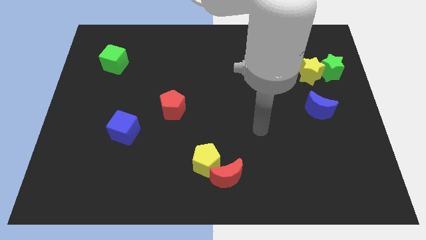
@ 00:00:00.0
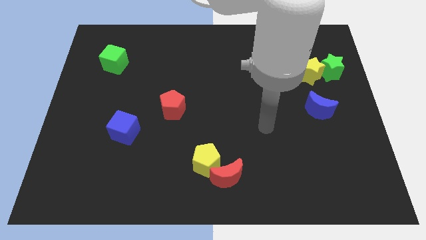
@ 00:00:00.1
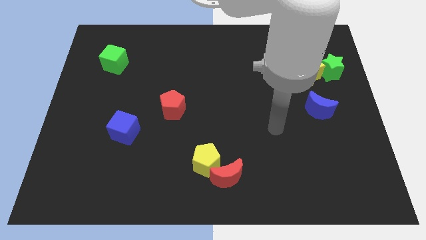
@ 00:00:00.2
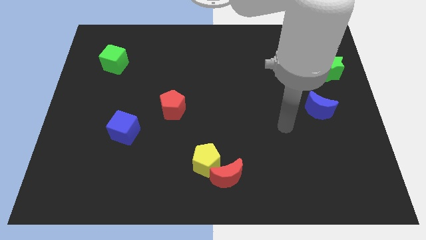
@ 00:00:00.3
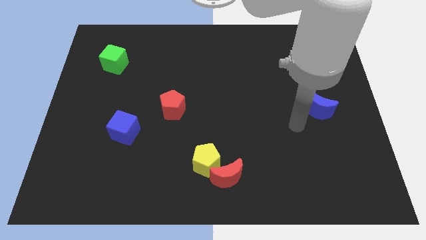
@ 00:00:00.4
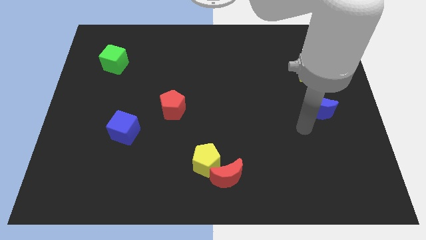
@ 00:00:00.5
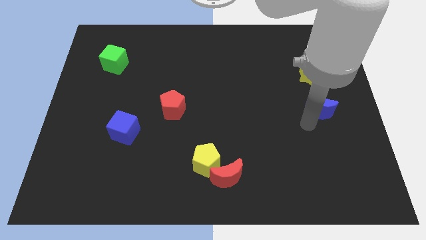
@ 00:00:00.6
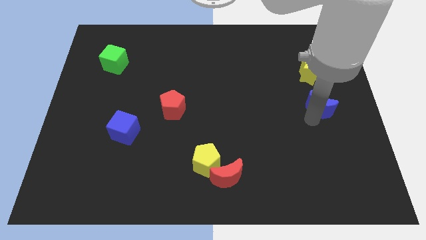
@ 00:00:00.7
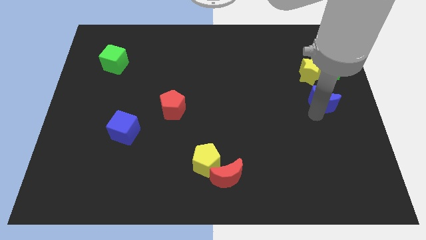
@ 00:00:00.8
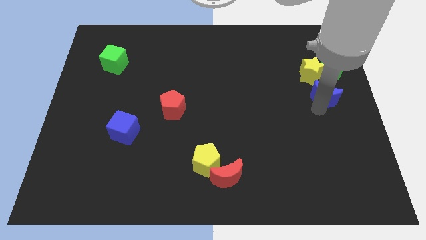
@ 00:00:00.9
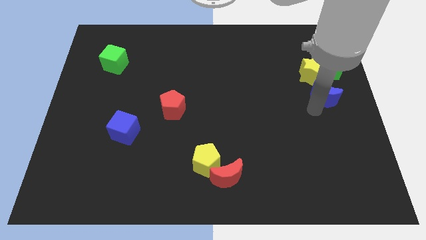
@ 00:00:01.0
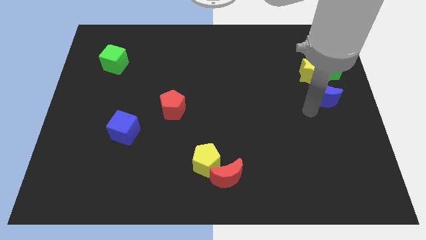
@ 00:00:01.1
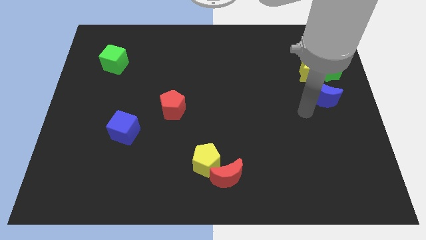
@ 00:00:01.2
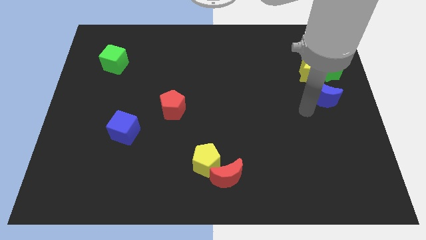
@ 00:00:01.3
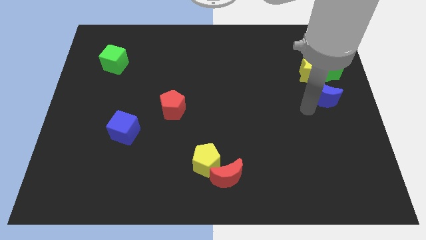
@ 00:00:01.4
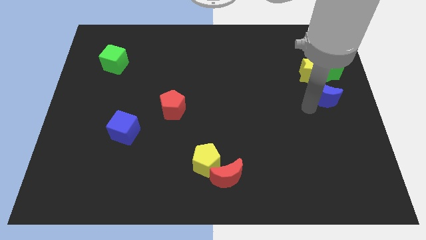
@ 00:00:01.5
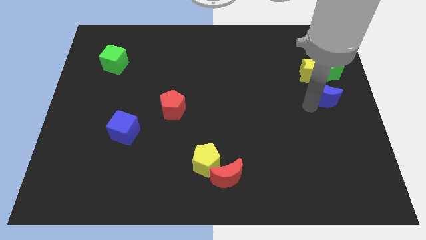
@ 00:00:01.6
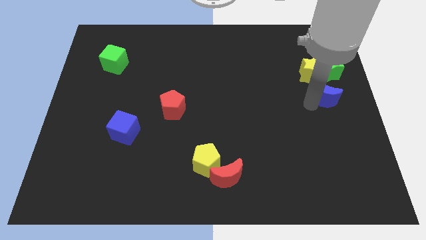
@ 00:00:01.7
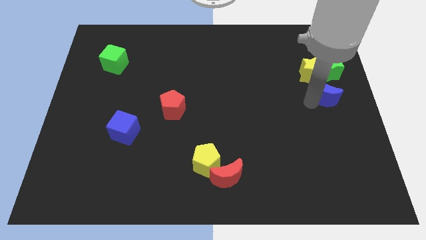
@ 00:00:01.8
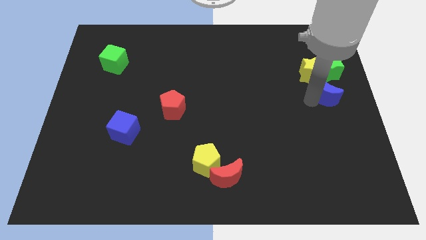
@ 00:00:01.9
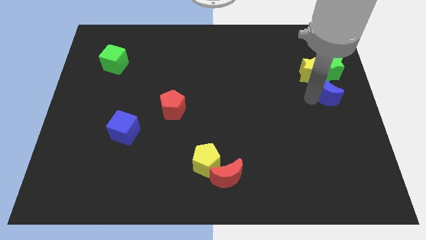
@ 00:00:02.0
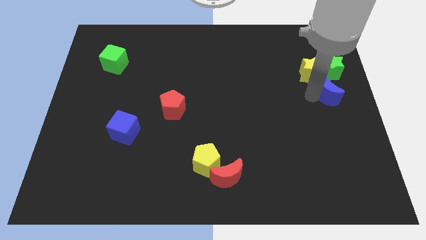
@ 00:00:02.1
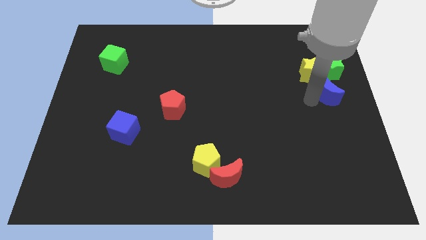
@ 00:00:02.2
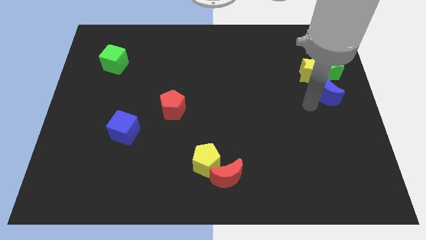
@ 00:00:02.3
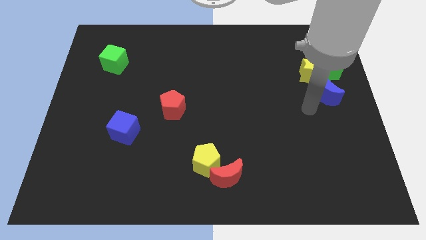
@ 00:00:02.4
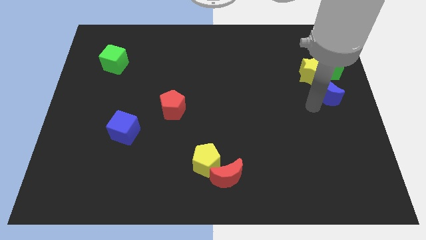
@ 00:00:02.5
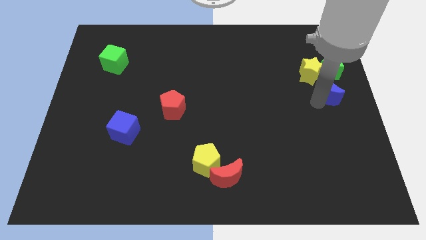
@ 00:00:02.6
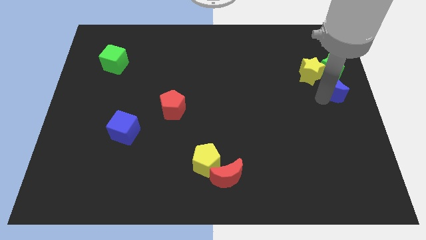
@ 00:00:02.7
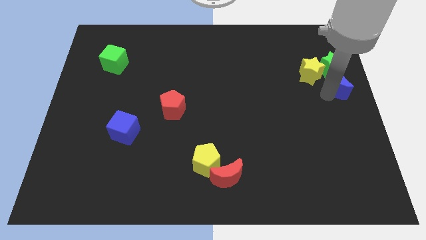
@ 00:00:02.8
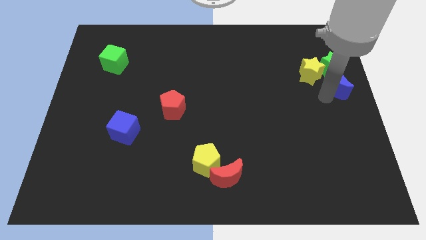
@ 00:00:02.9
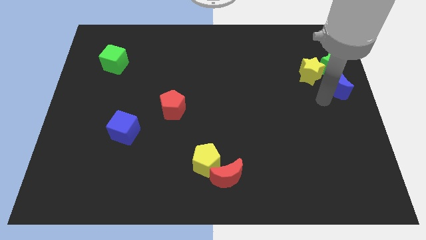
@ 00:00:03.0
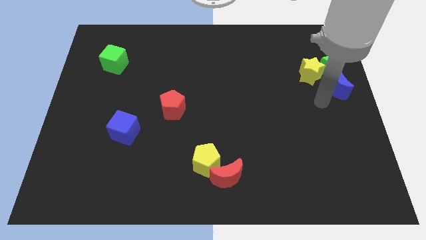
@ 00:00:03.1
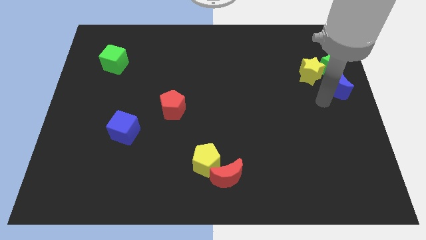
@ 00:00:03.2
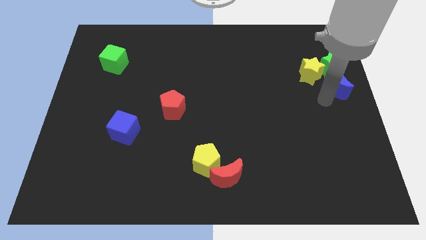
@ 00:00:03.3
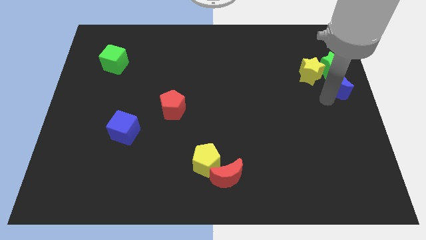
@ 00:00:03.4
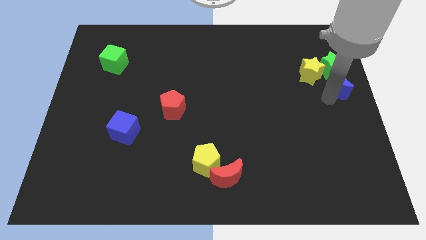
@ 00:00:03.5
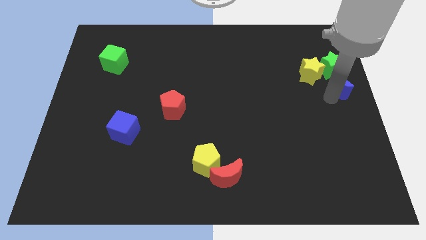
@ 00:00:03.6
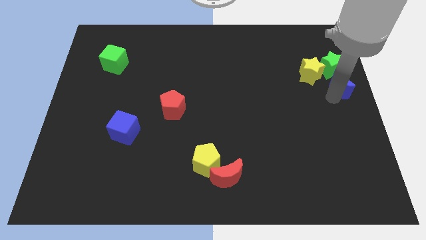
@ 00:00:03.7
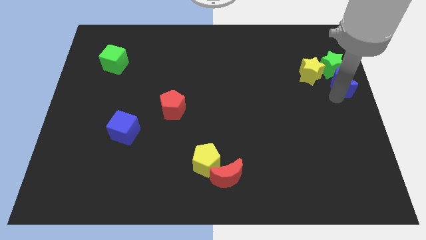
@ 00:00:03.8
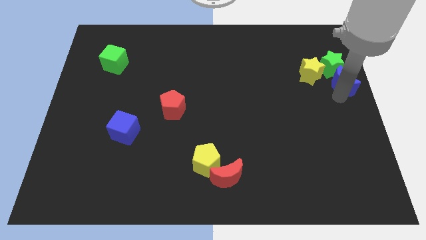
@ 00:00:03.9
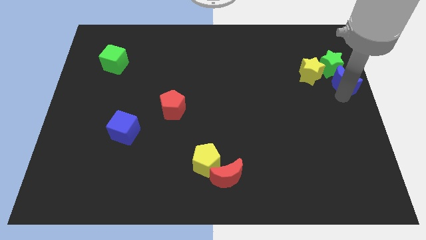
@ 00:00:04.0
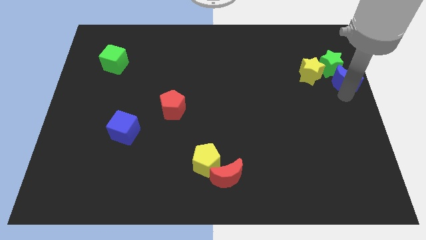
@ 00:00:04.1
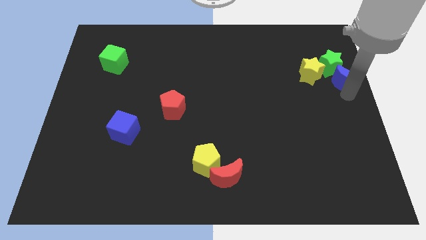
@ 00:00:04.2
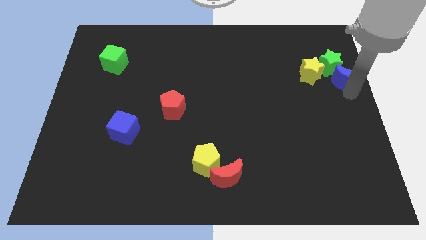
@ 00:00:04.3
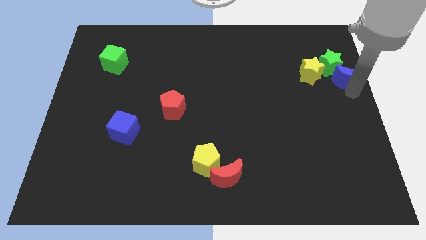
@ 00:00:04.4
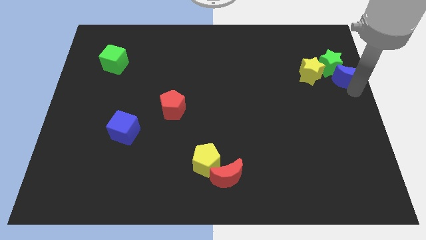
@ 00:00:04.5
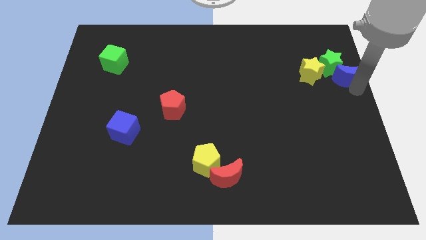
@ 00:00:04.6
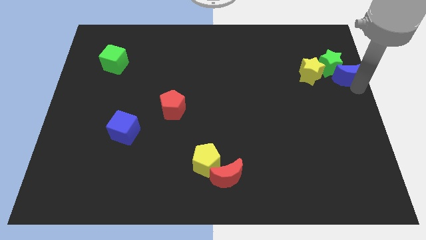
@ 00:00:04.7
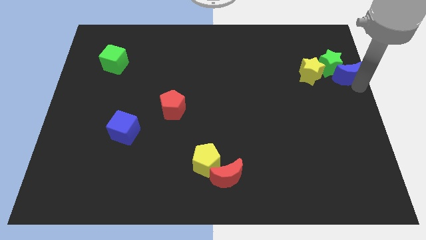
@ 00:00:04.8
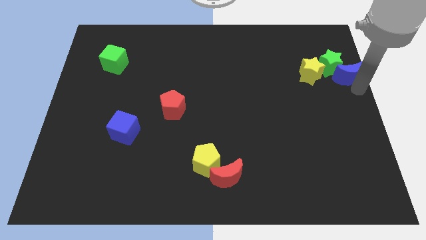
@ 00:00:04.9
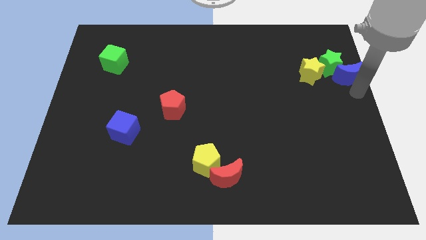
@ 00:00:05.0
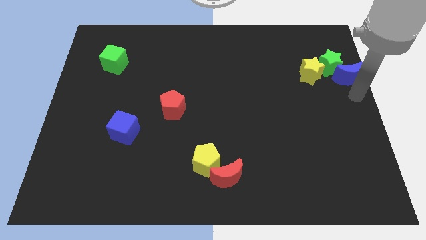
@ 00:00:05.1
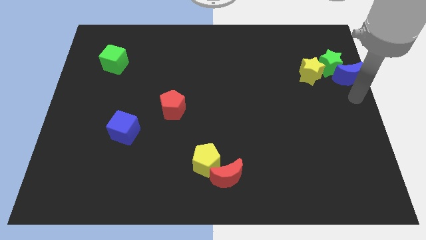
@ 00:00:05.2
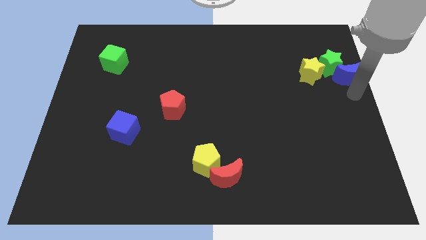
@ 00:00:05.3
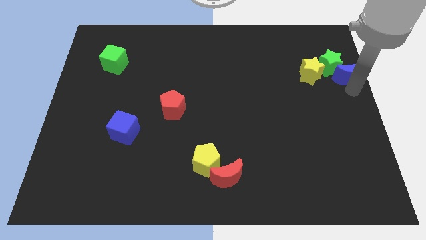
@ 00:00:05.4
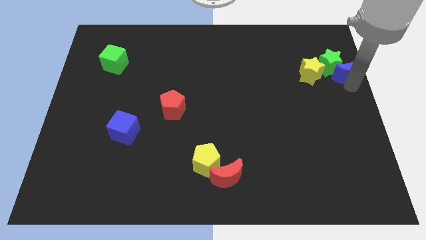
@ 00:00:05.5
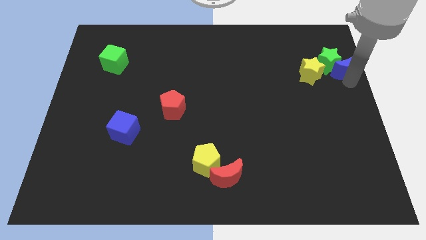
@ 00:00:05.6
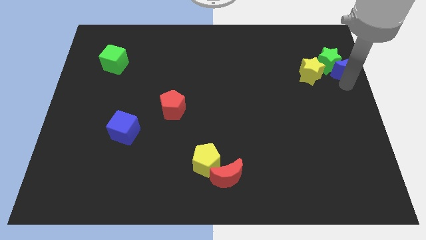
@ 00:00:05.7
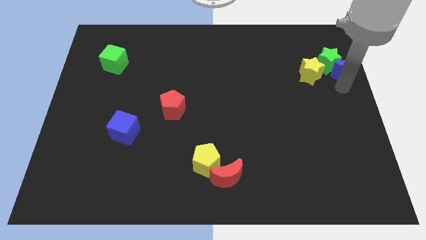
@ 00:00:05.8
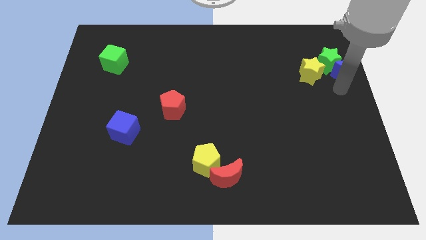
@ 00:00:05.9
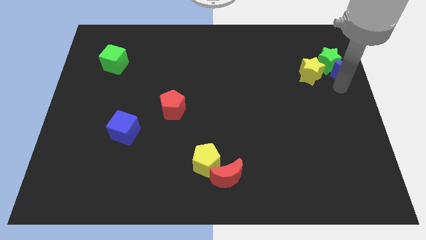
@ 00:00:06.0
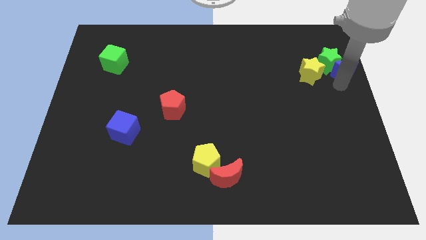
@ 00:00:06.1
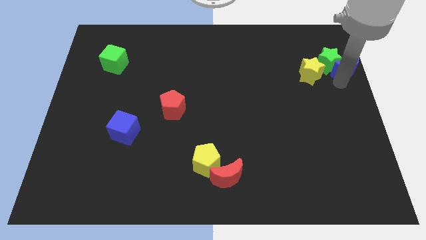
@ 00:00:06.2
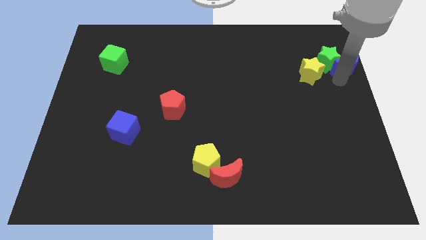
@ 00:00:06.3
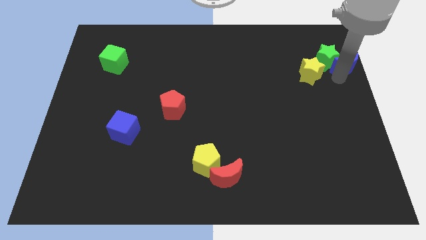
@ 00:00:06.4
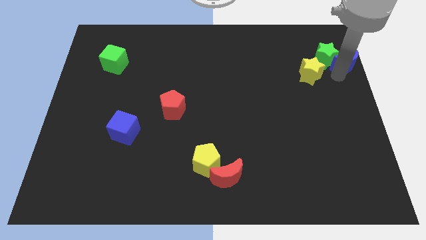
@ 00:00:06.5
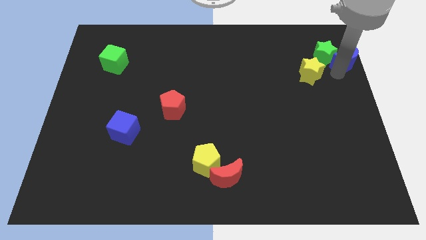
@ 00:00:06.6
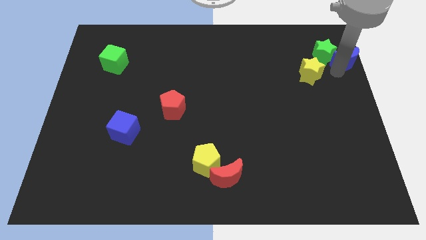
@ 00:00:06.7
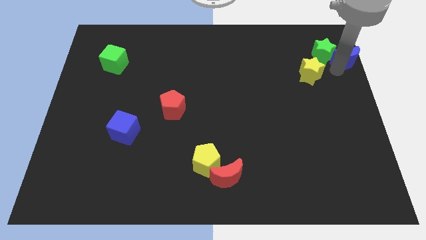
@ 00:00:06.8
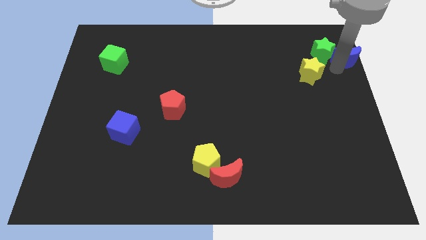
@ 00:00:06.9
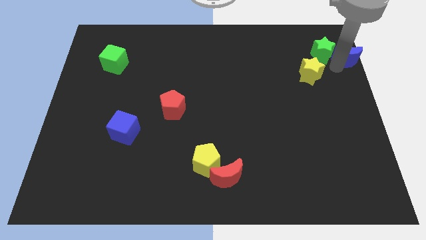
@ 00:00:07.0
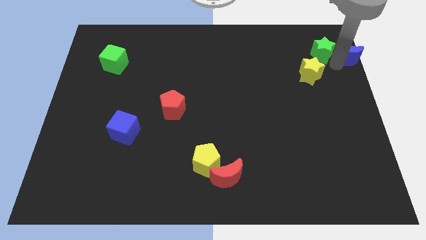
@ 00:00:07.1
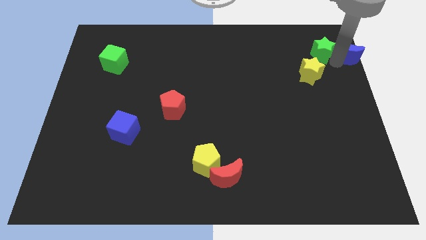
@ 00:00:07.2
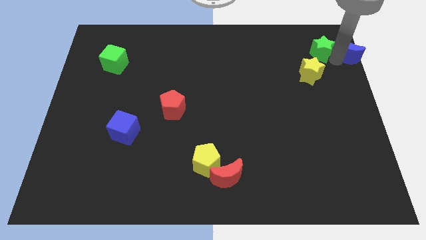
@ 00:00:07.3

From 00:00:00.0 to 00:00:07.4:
slide the blue moon to the top right
